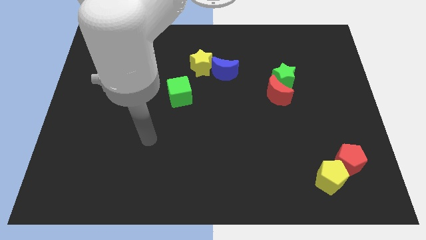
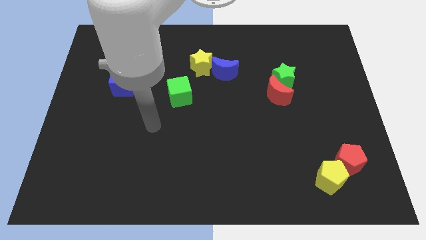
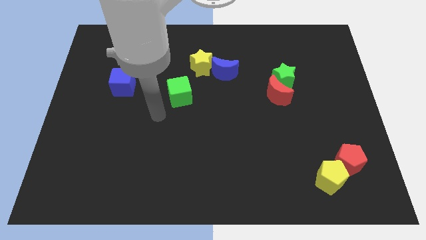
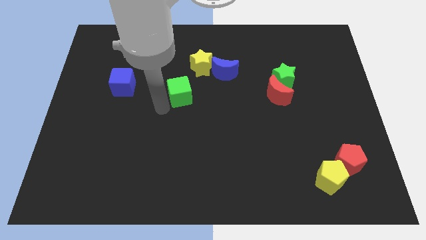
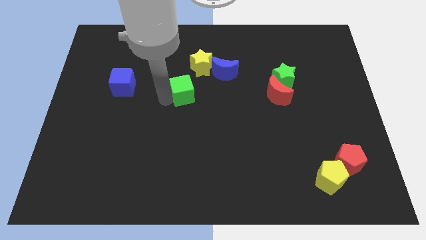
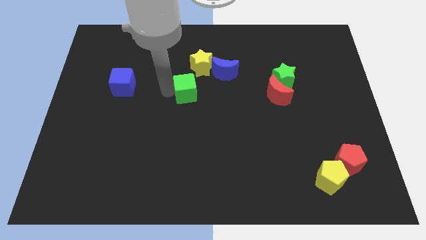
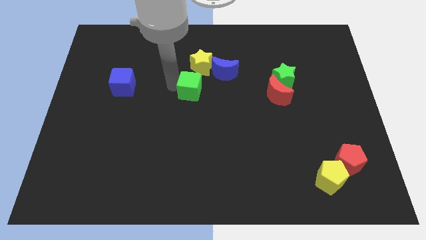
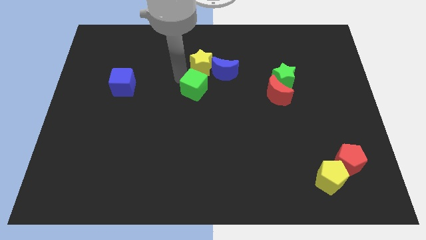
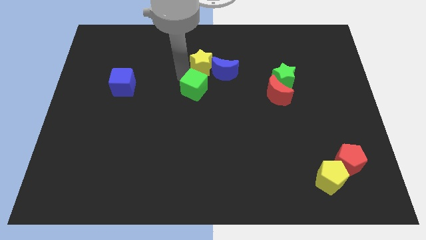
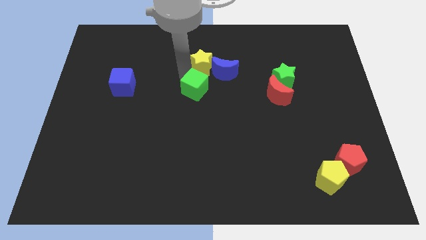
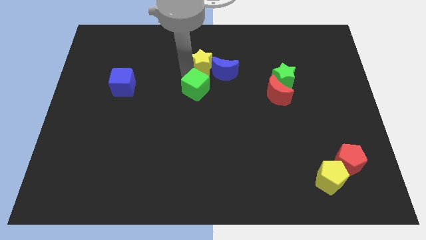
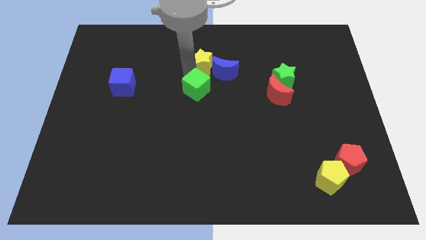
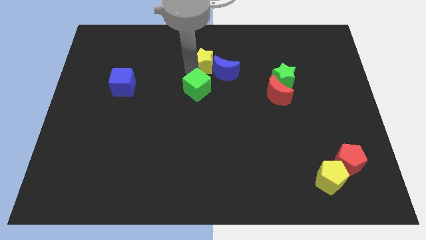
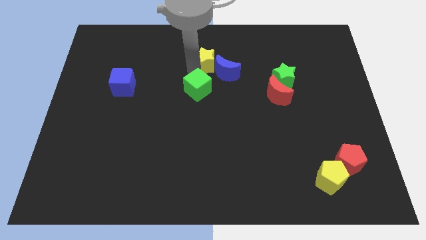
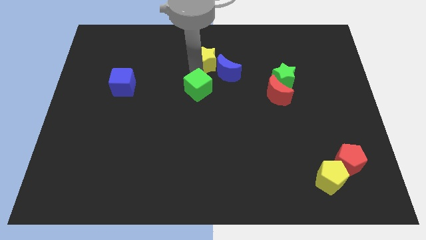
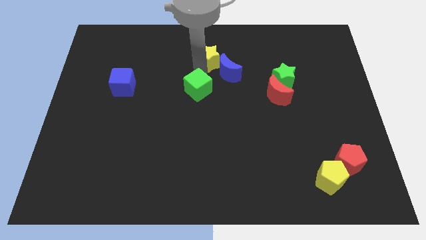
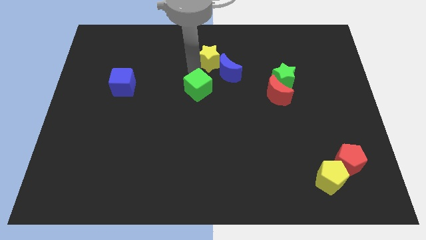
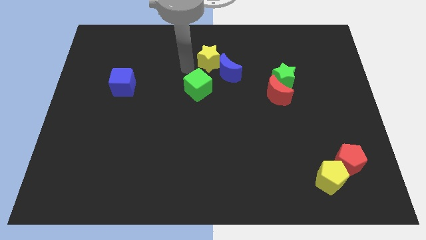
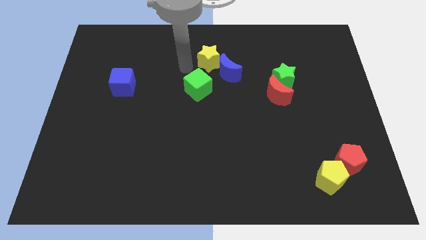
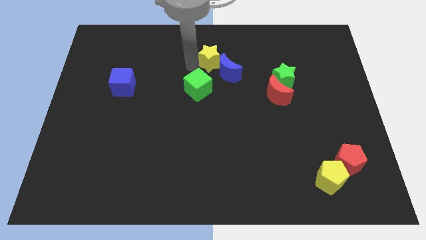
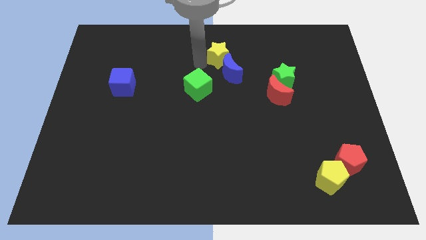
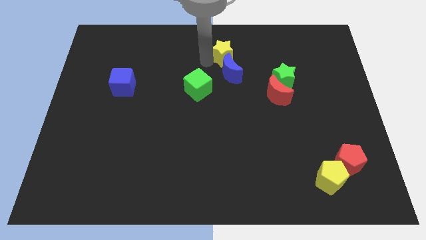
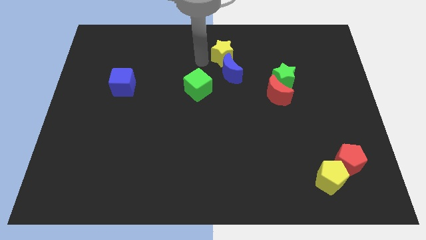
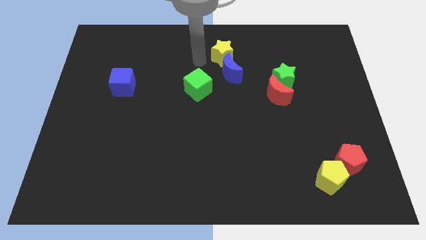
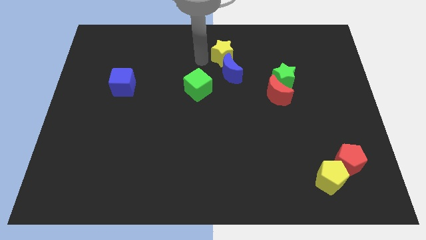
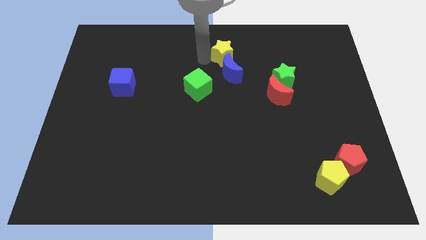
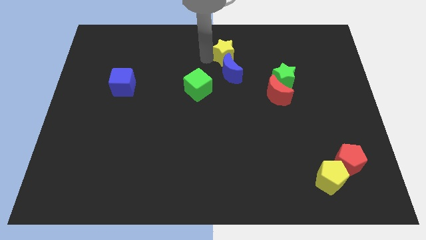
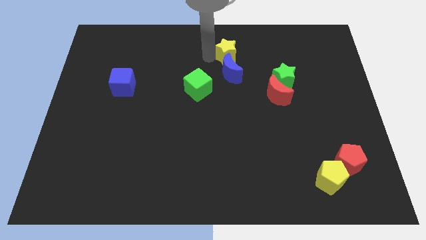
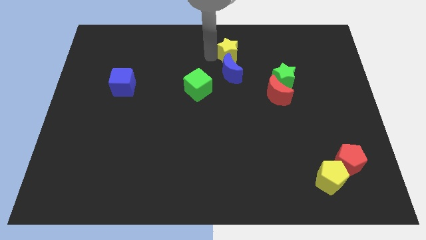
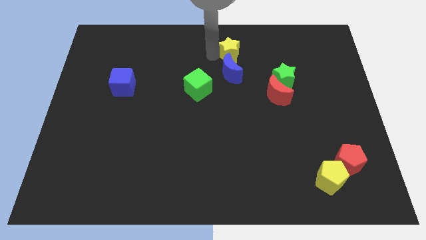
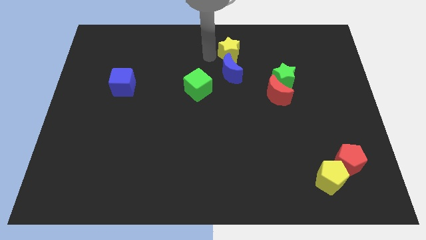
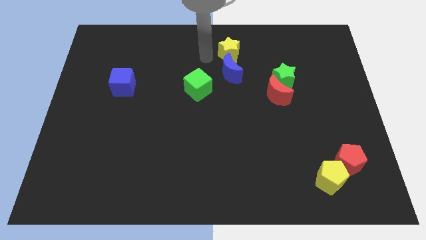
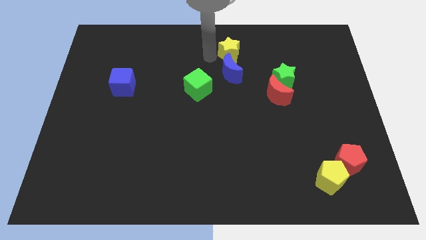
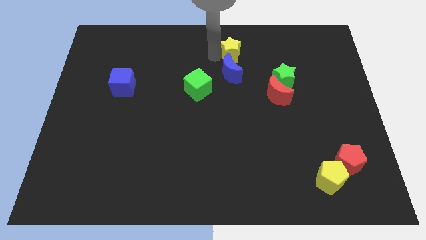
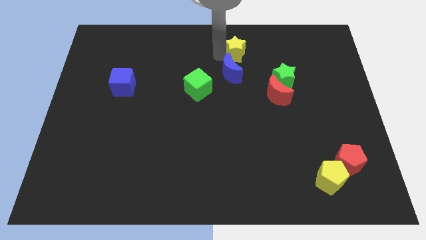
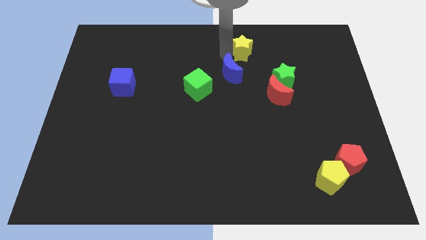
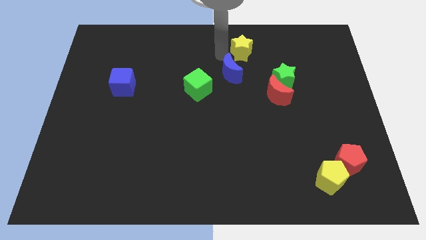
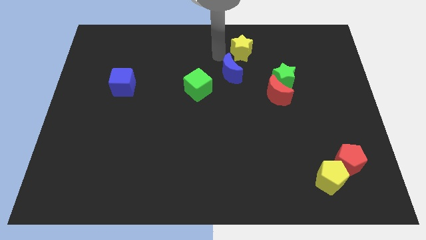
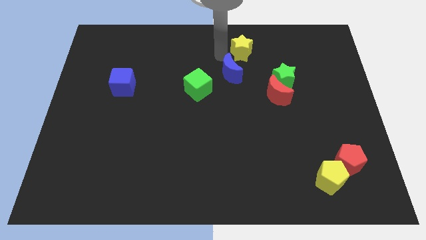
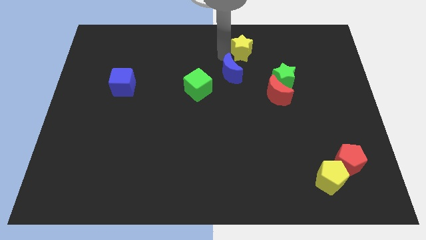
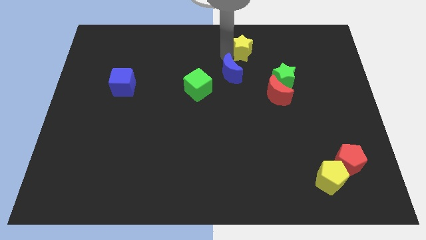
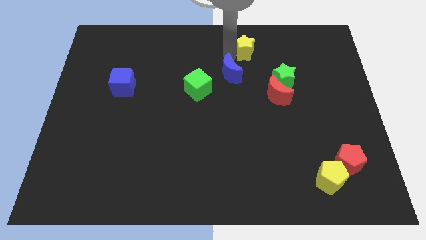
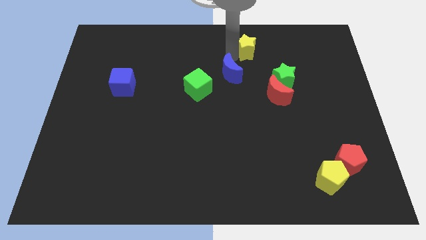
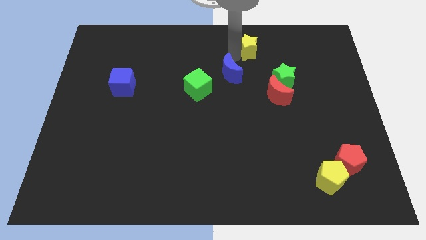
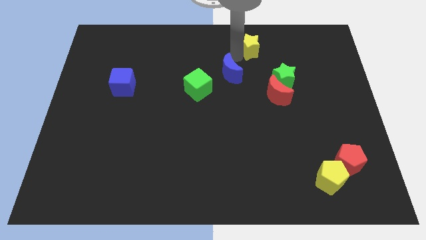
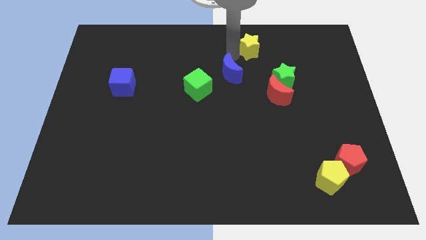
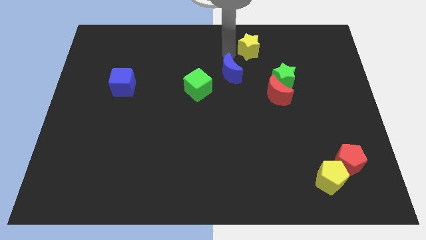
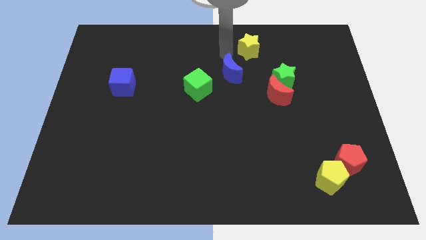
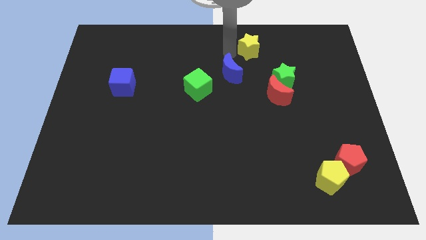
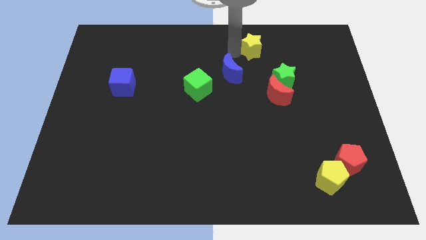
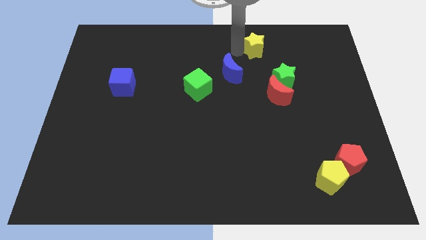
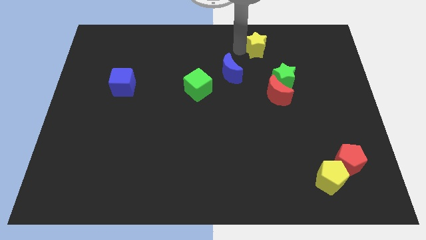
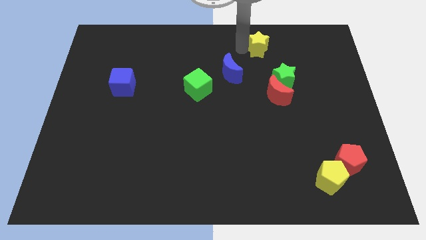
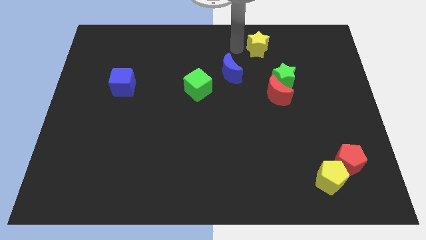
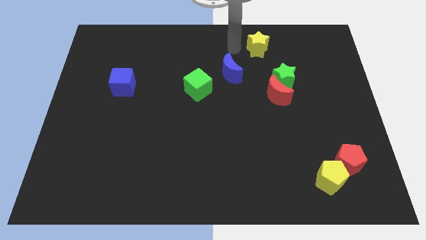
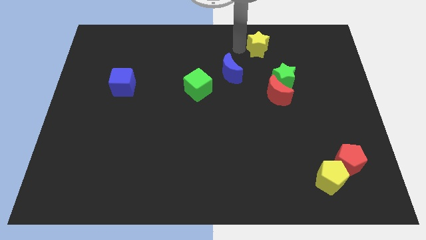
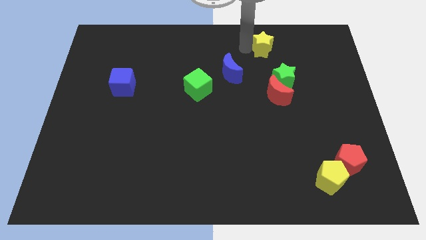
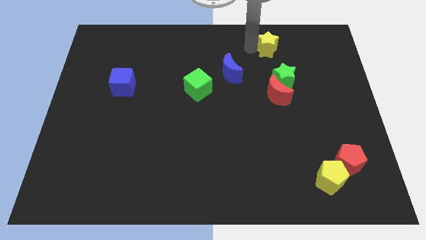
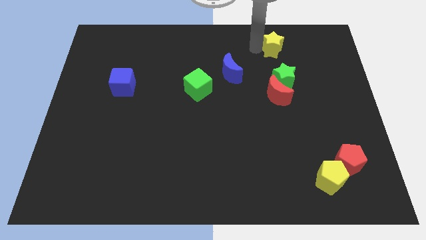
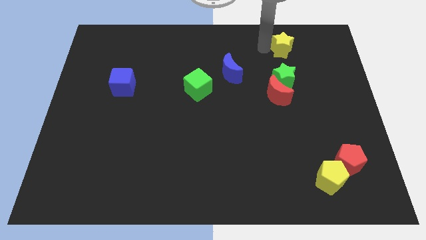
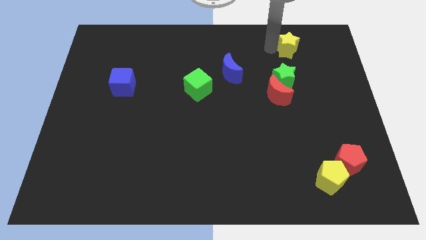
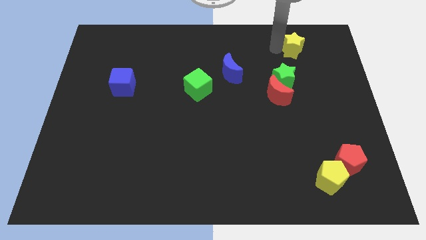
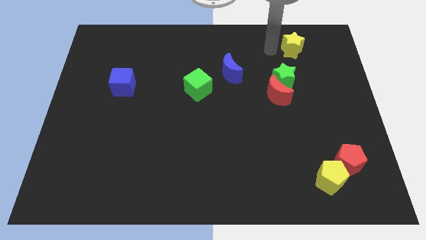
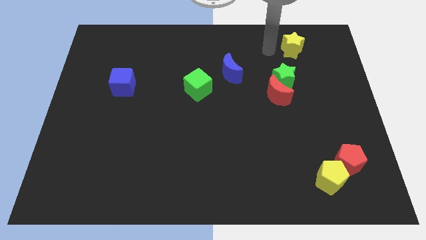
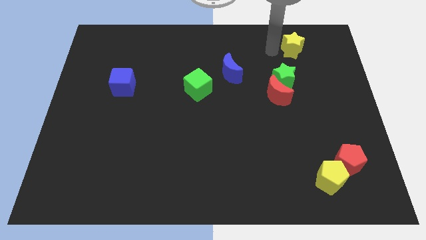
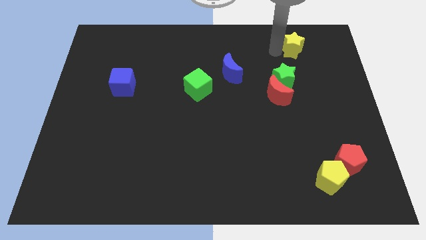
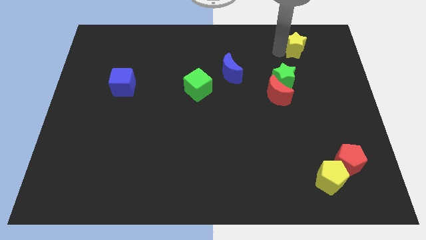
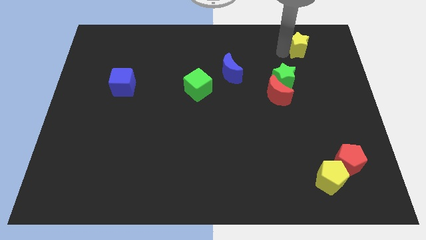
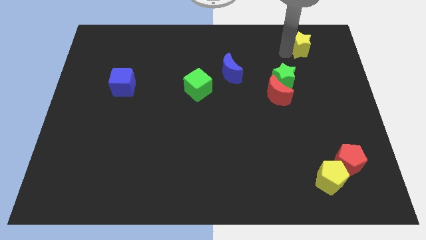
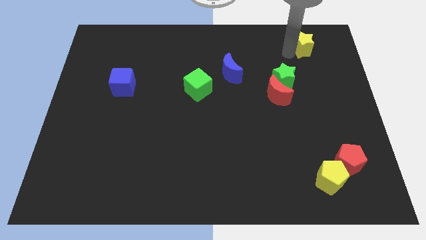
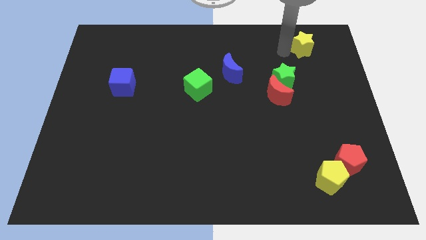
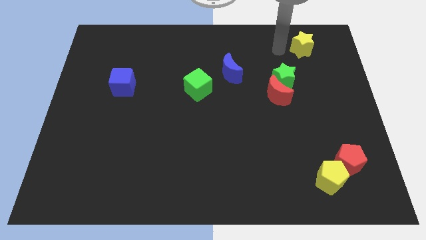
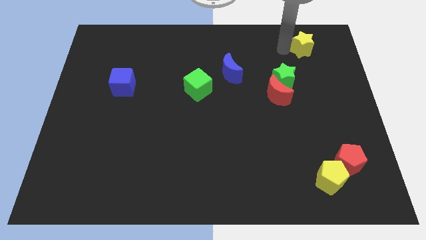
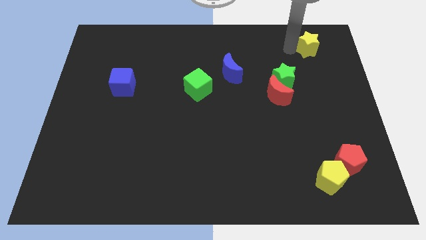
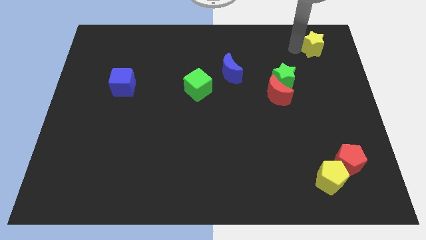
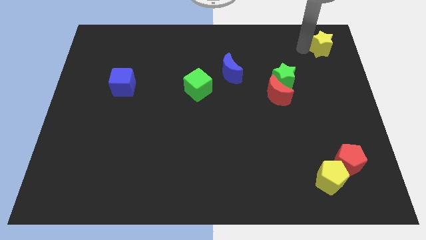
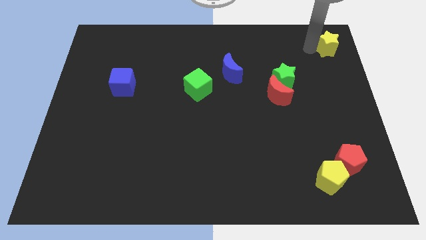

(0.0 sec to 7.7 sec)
push the yellow star to the top right
